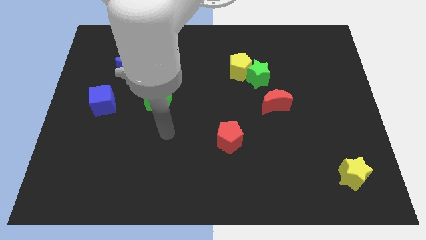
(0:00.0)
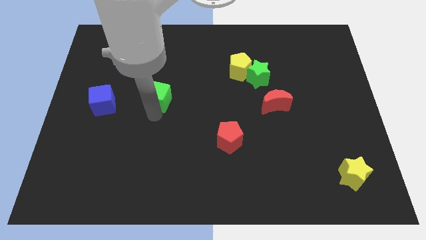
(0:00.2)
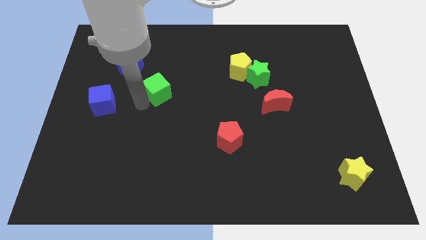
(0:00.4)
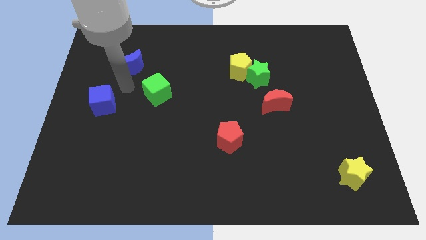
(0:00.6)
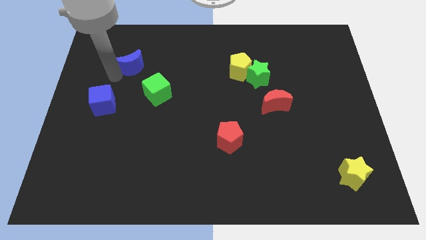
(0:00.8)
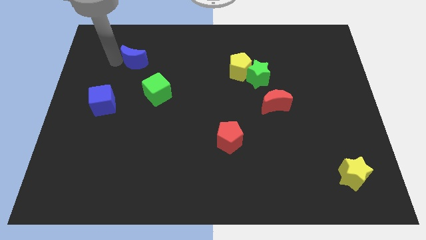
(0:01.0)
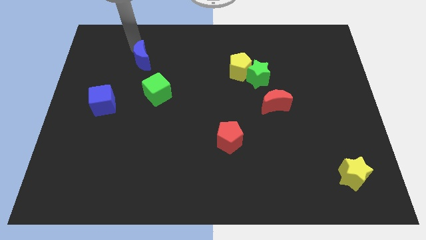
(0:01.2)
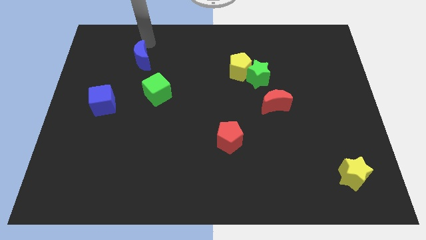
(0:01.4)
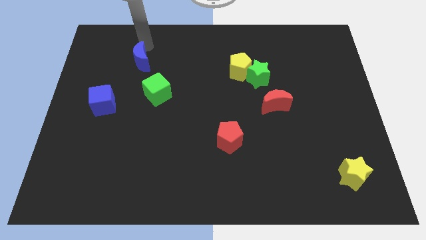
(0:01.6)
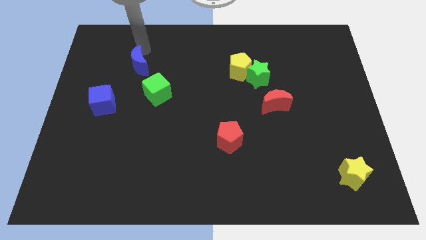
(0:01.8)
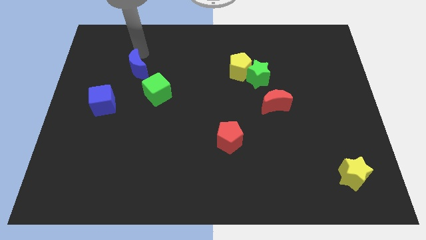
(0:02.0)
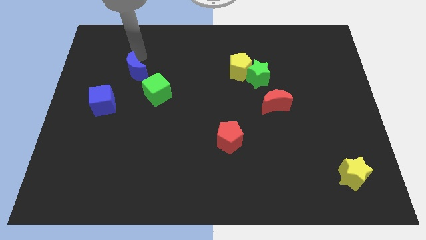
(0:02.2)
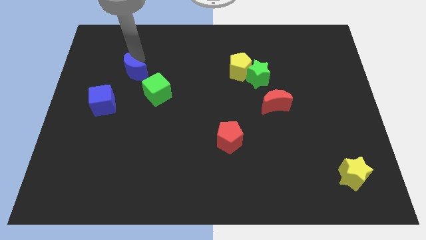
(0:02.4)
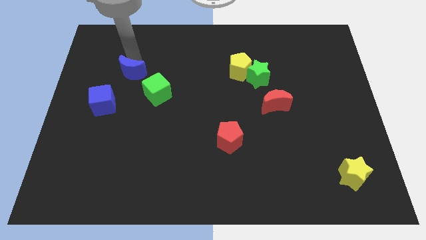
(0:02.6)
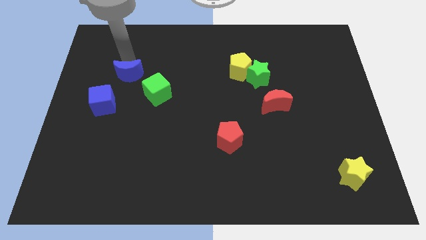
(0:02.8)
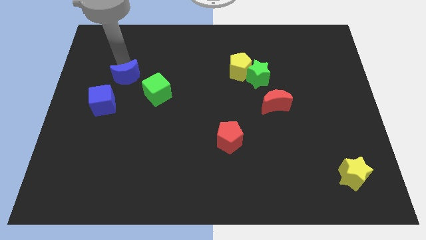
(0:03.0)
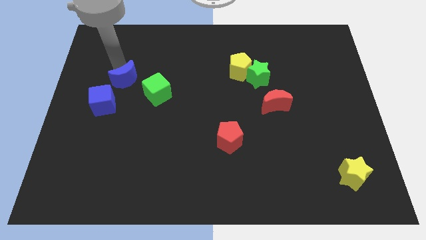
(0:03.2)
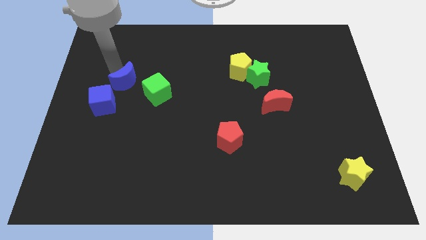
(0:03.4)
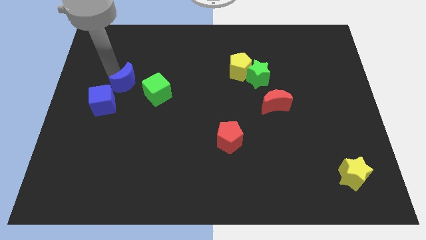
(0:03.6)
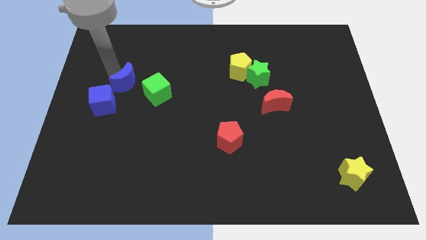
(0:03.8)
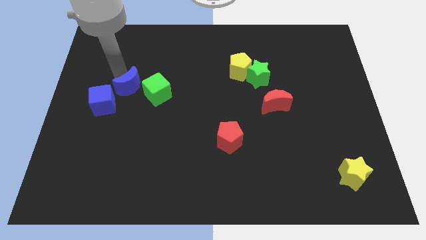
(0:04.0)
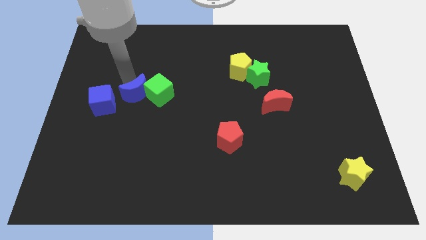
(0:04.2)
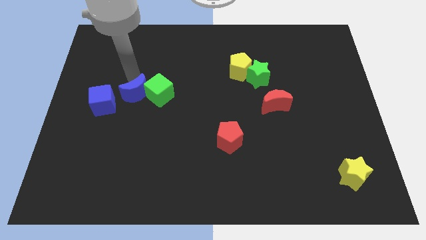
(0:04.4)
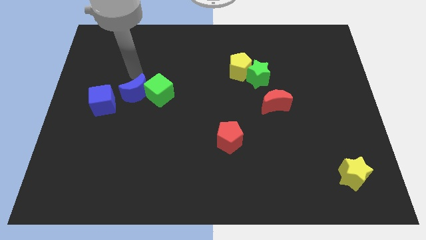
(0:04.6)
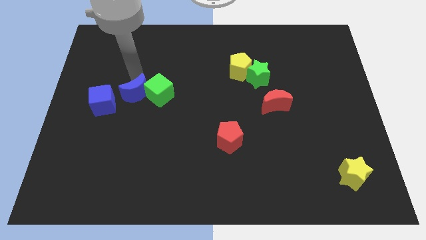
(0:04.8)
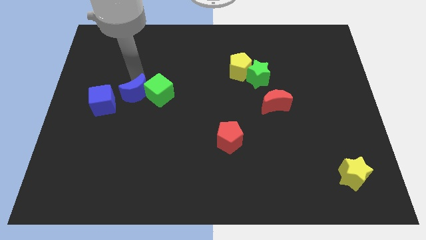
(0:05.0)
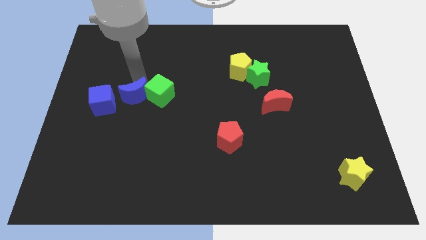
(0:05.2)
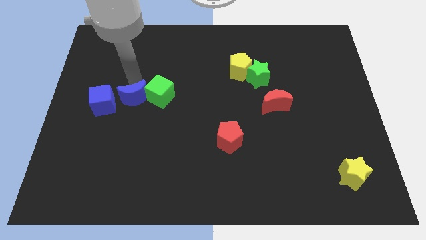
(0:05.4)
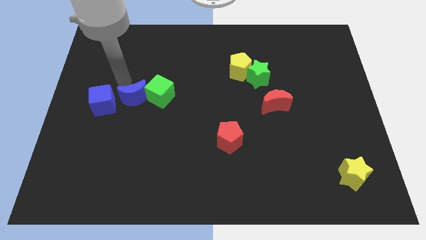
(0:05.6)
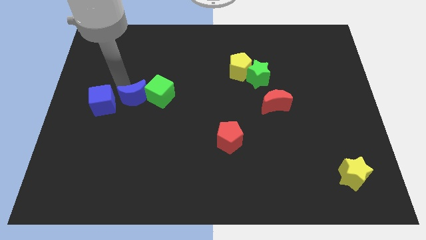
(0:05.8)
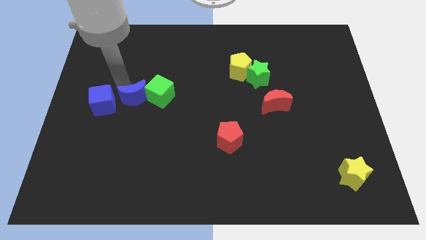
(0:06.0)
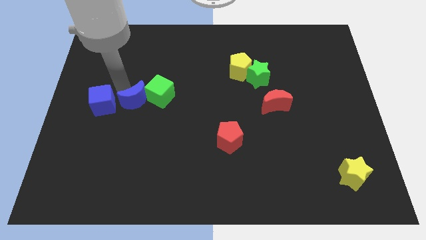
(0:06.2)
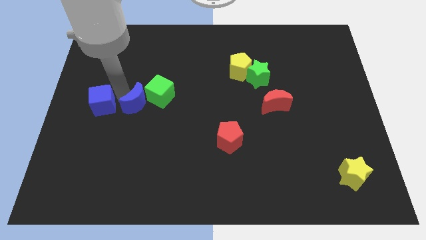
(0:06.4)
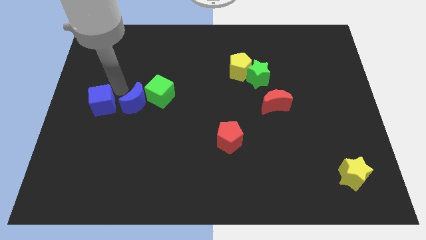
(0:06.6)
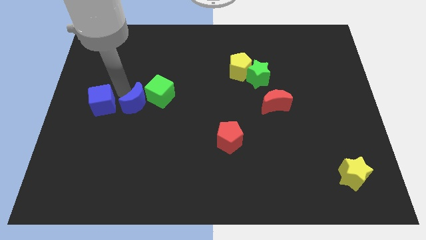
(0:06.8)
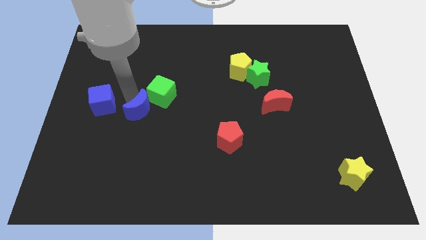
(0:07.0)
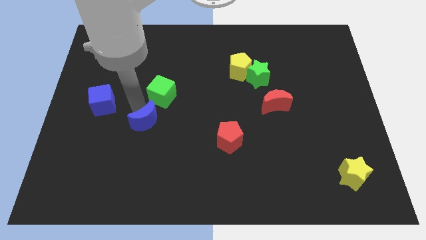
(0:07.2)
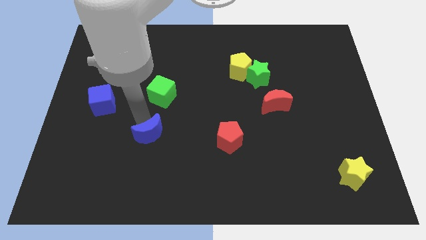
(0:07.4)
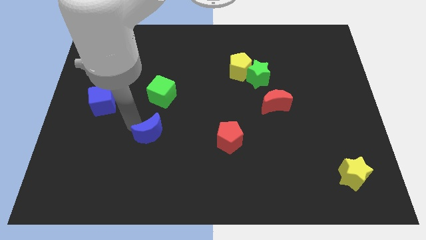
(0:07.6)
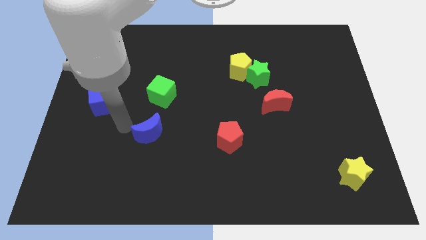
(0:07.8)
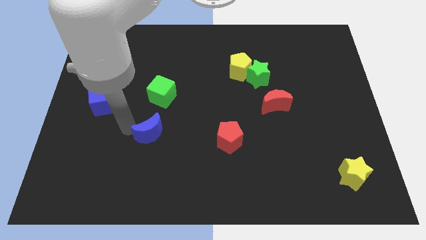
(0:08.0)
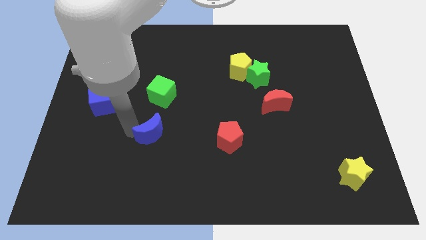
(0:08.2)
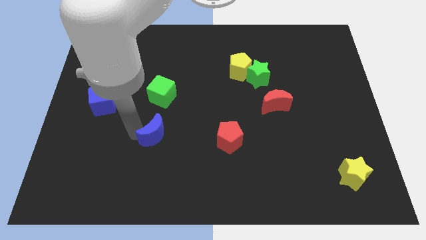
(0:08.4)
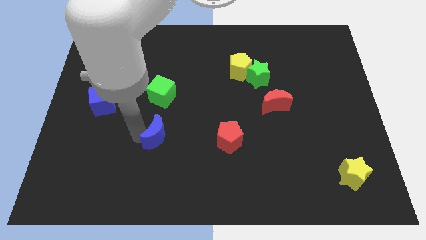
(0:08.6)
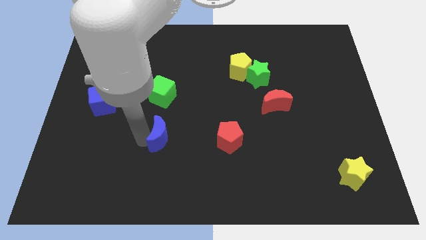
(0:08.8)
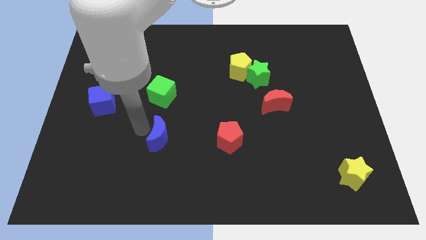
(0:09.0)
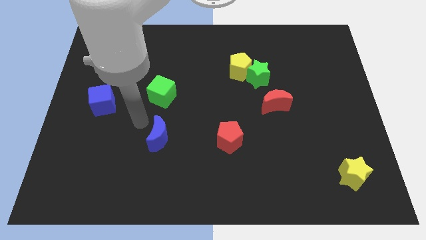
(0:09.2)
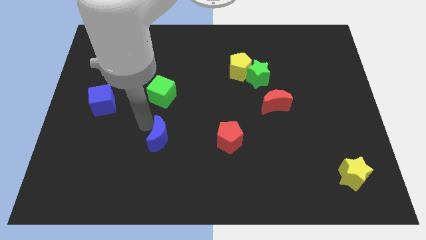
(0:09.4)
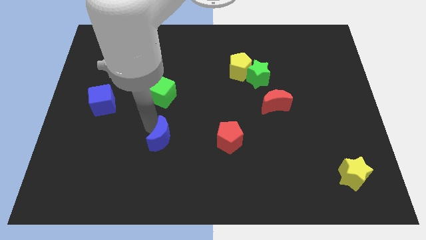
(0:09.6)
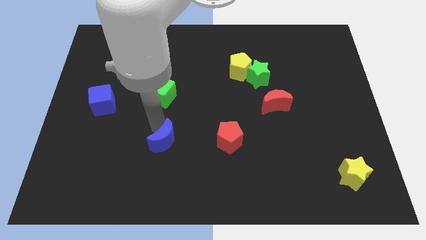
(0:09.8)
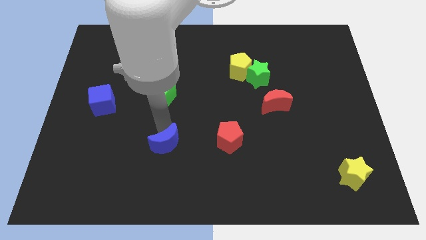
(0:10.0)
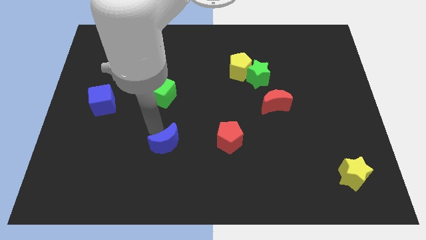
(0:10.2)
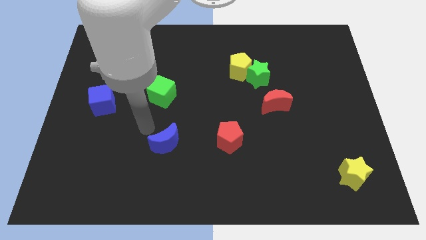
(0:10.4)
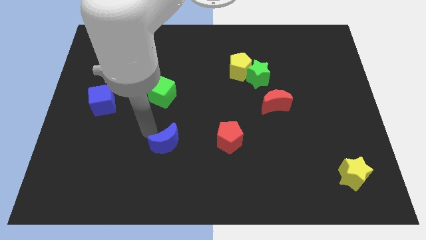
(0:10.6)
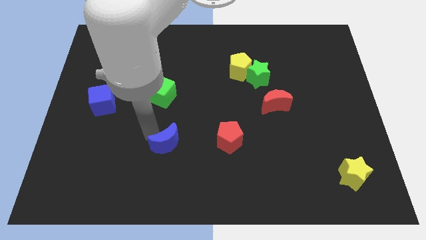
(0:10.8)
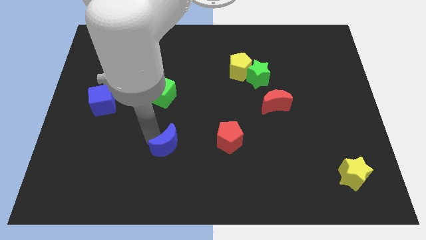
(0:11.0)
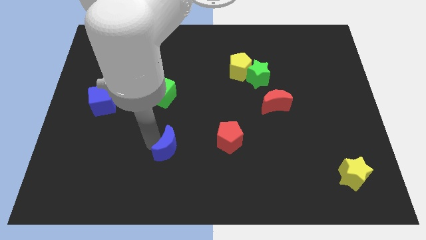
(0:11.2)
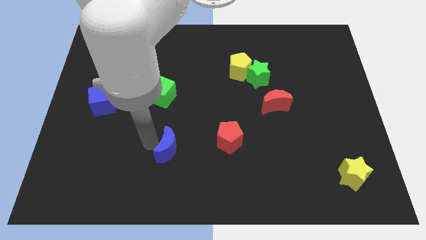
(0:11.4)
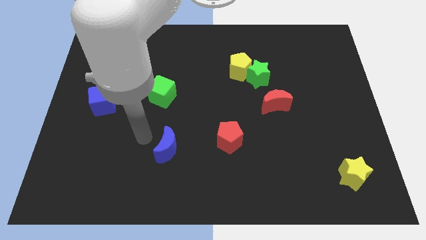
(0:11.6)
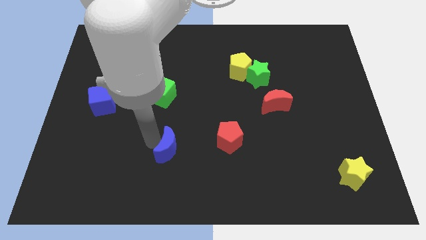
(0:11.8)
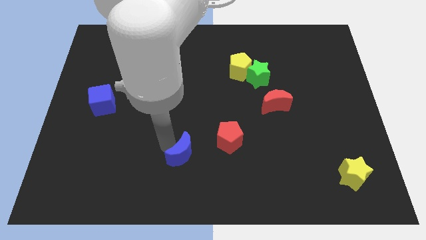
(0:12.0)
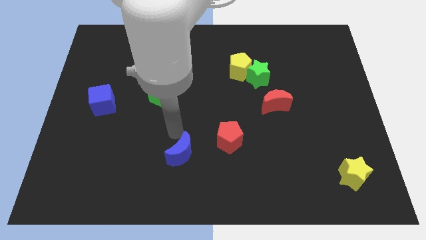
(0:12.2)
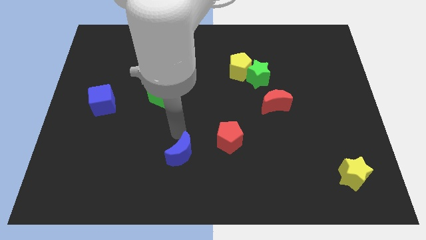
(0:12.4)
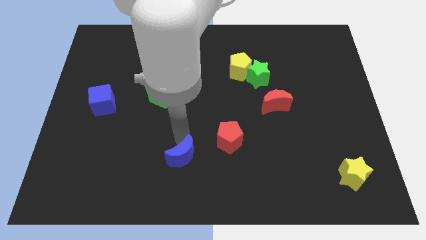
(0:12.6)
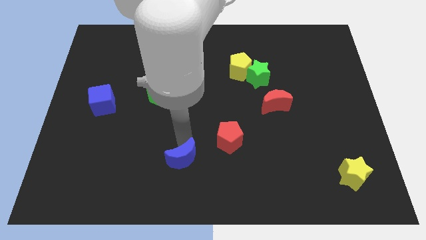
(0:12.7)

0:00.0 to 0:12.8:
slide the blue moon to the bottom
